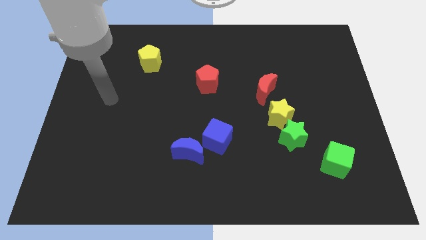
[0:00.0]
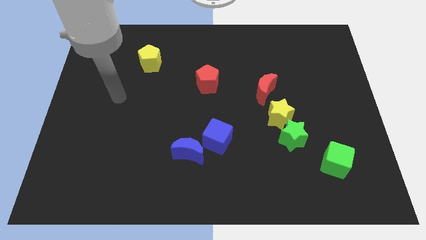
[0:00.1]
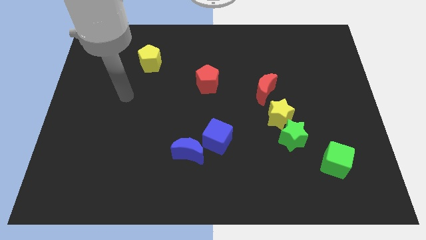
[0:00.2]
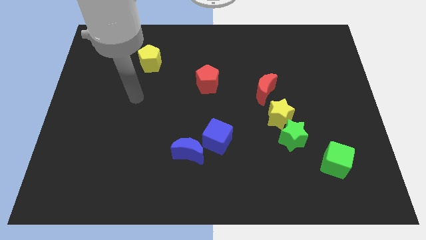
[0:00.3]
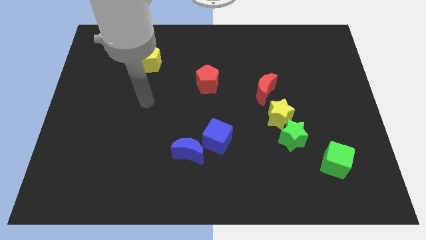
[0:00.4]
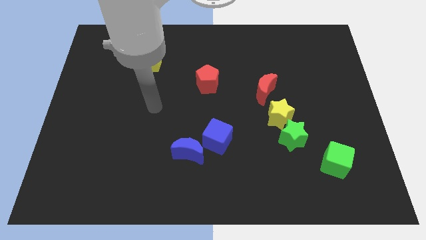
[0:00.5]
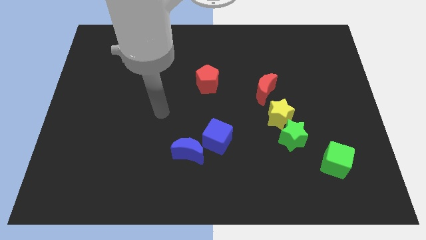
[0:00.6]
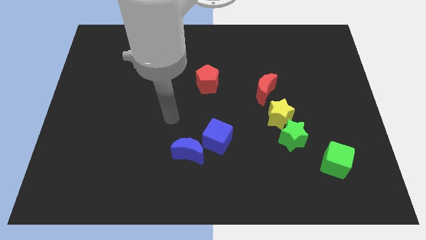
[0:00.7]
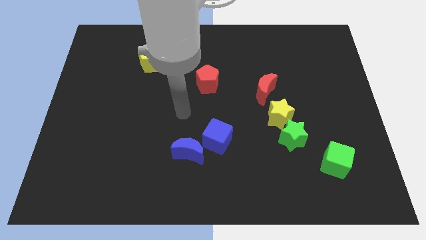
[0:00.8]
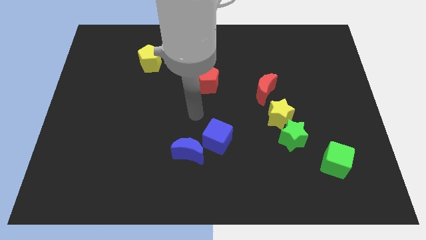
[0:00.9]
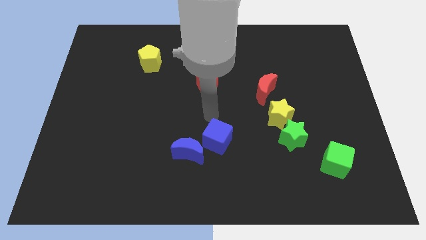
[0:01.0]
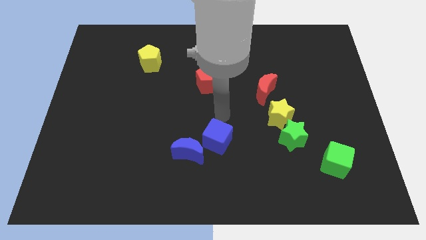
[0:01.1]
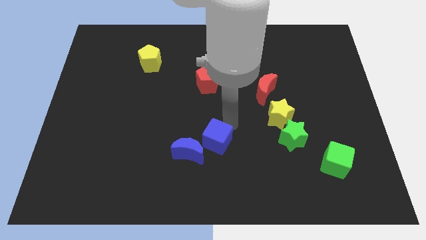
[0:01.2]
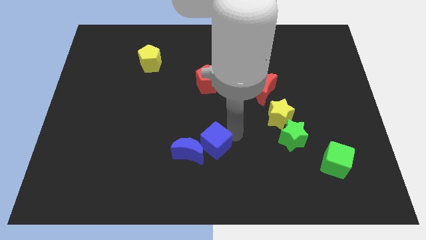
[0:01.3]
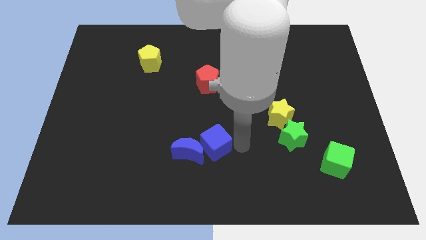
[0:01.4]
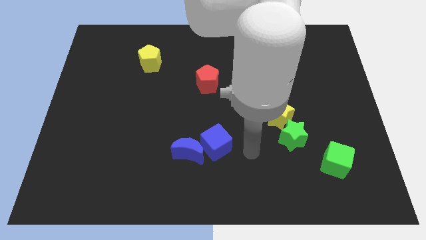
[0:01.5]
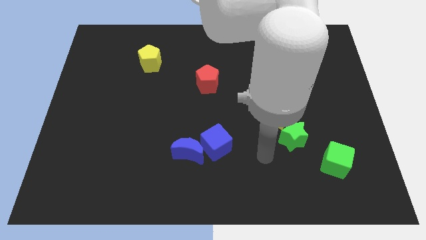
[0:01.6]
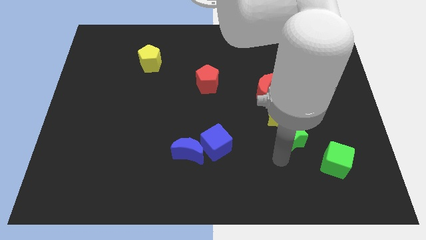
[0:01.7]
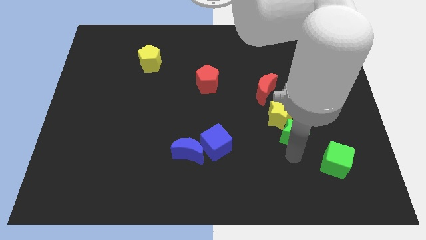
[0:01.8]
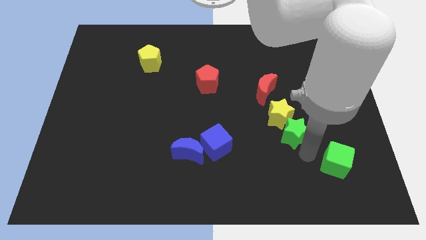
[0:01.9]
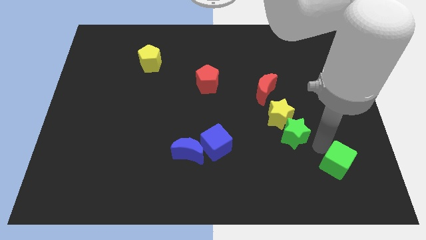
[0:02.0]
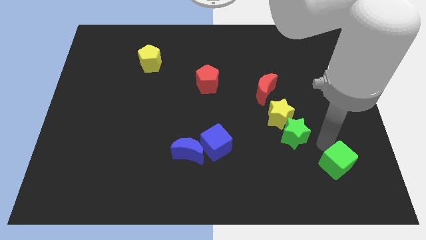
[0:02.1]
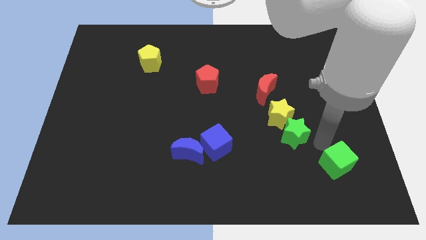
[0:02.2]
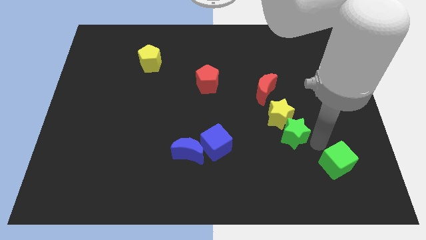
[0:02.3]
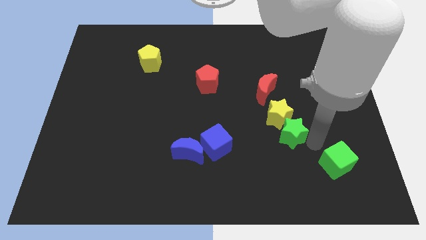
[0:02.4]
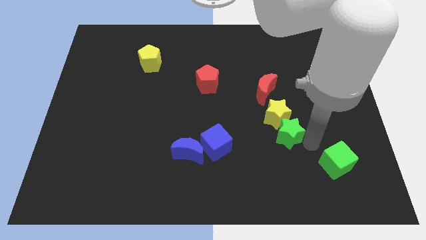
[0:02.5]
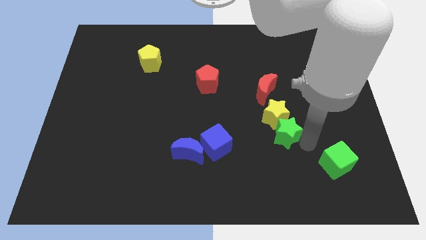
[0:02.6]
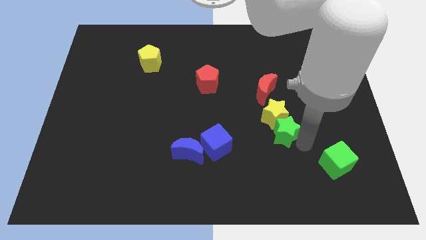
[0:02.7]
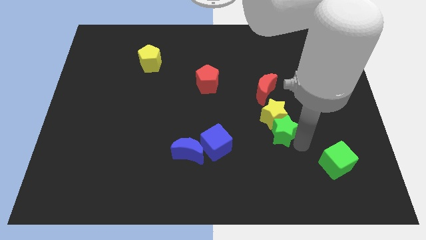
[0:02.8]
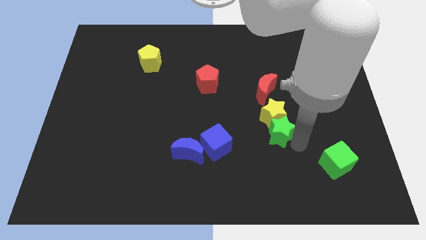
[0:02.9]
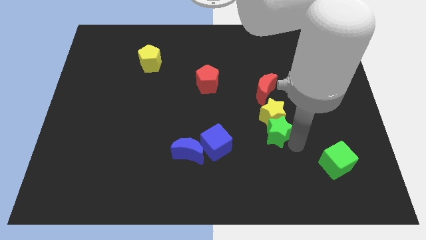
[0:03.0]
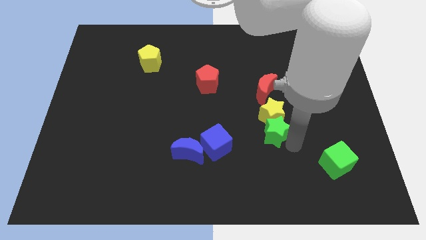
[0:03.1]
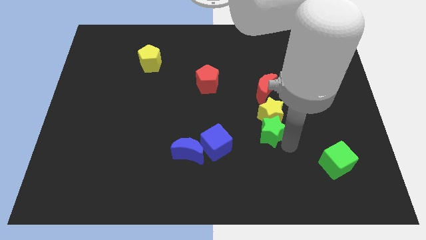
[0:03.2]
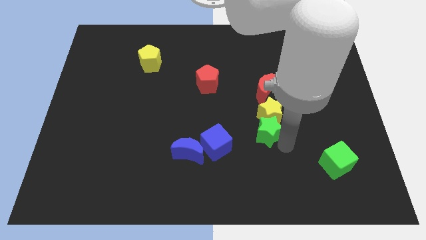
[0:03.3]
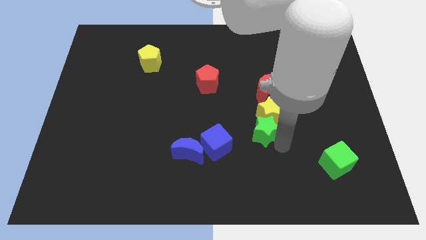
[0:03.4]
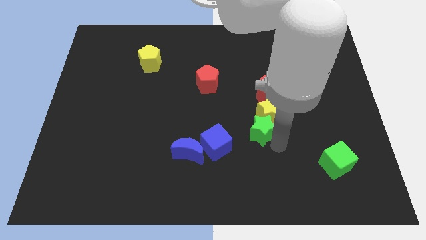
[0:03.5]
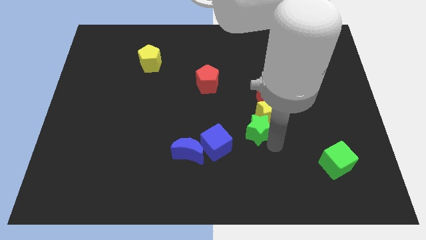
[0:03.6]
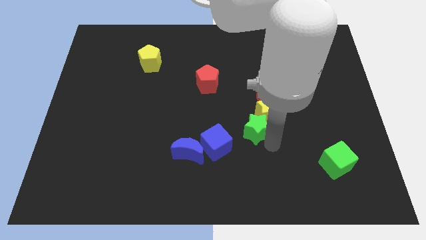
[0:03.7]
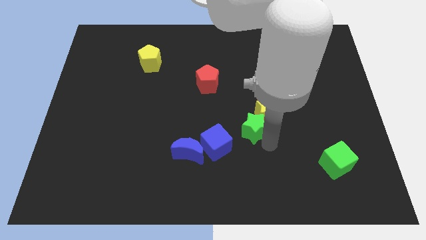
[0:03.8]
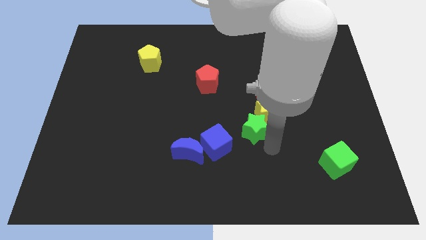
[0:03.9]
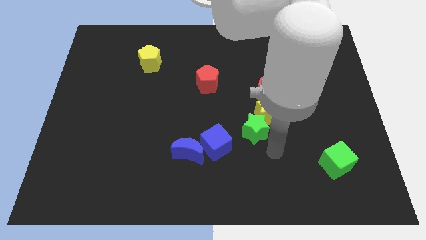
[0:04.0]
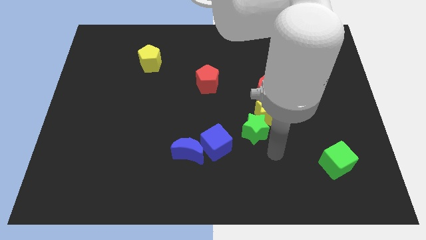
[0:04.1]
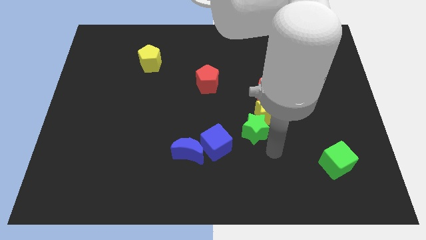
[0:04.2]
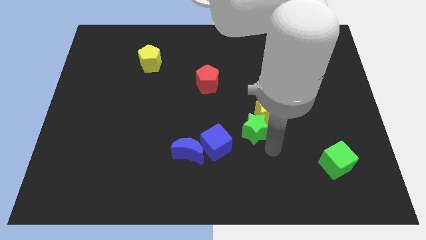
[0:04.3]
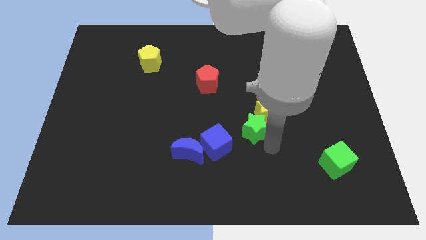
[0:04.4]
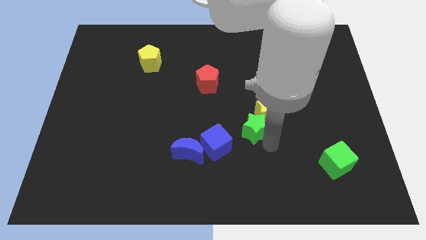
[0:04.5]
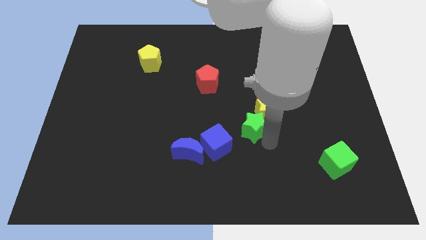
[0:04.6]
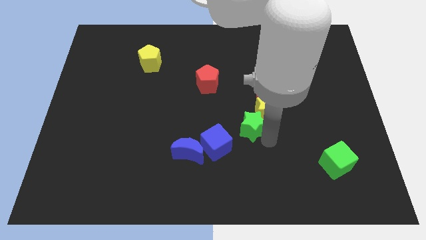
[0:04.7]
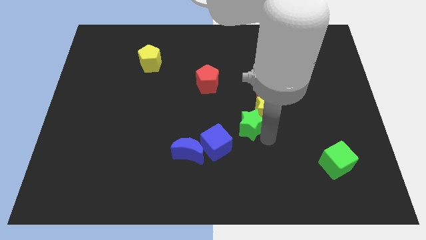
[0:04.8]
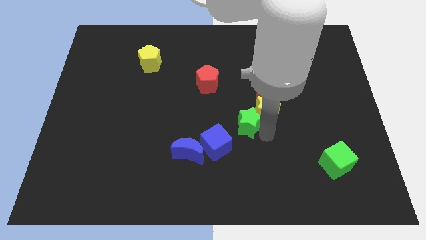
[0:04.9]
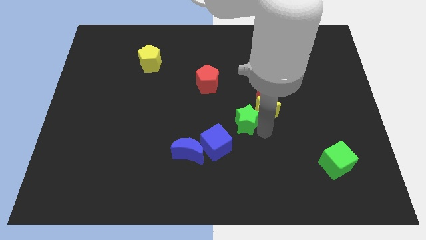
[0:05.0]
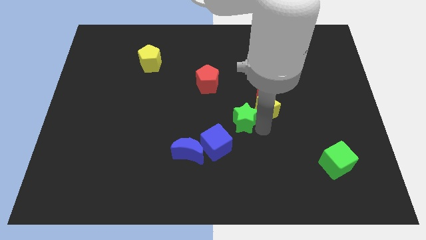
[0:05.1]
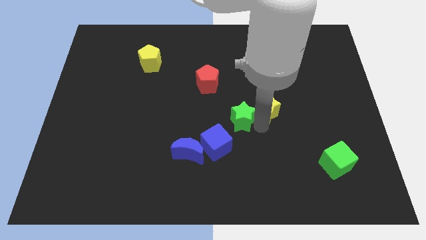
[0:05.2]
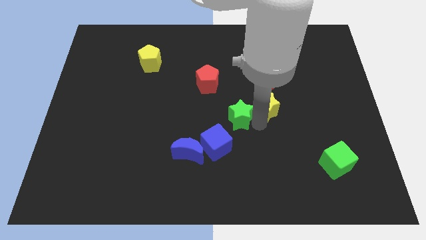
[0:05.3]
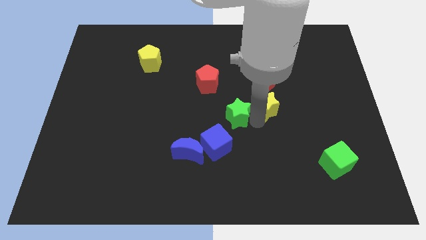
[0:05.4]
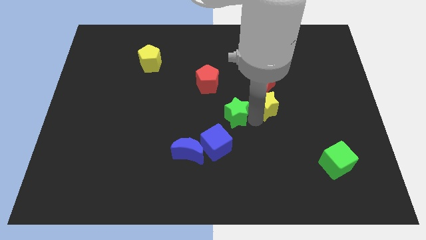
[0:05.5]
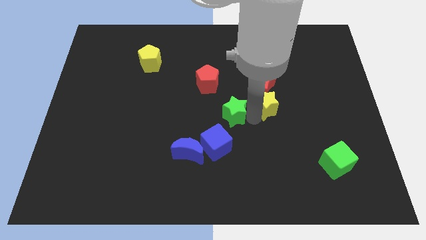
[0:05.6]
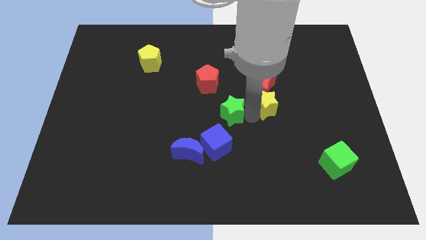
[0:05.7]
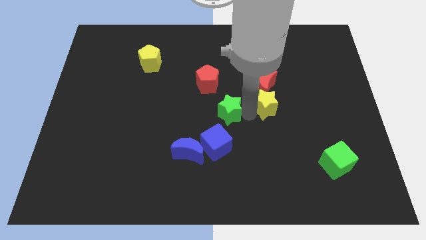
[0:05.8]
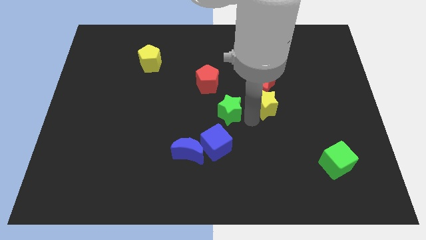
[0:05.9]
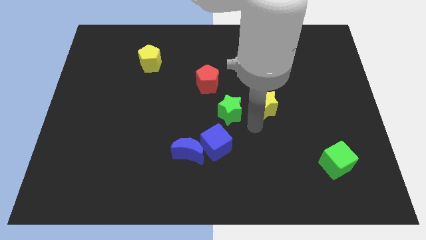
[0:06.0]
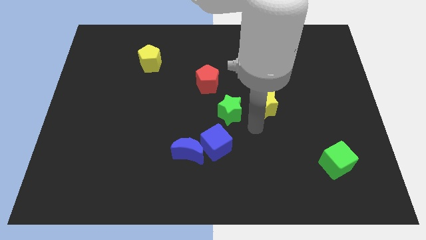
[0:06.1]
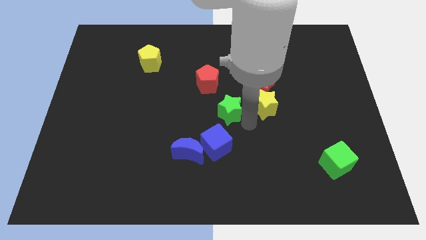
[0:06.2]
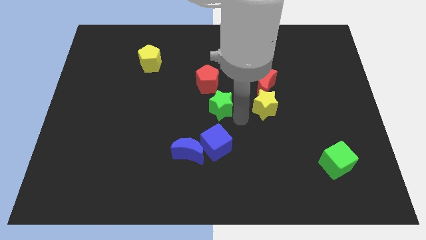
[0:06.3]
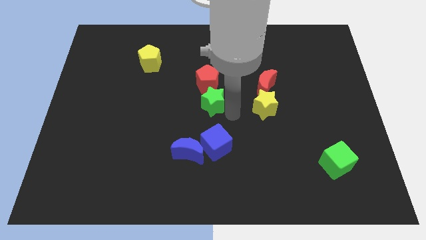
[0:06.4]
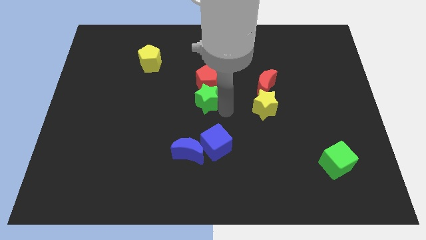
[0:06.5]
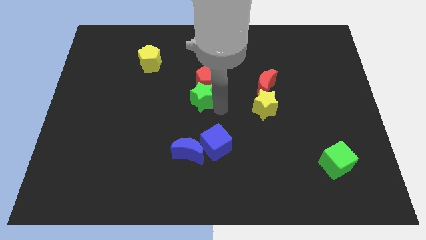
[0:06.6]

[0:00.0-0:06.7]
push the green star diagonally up and to the left

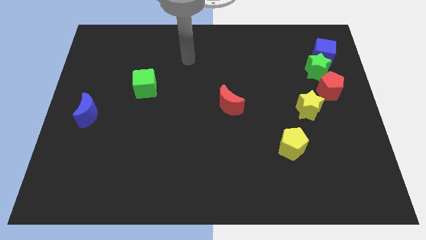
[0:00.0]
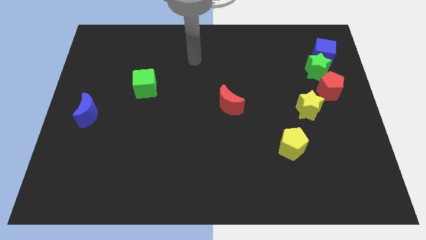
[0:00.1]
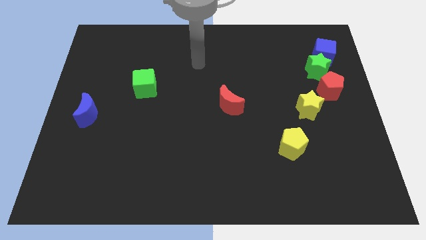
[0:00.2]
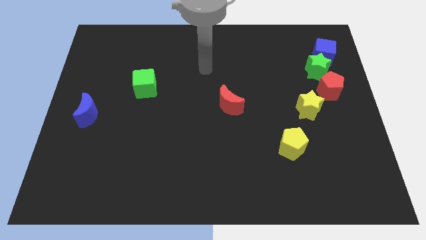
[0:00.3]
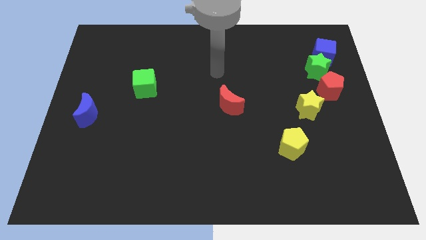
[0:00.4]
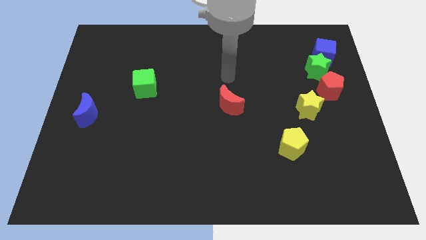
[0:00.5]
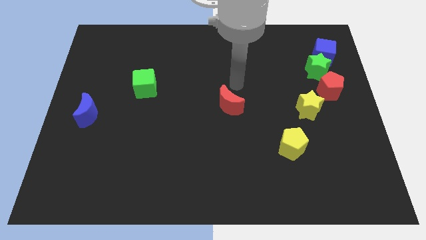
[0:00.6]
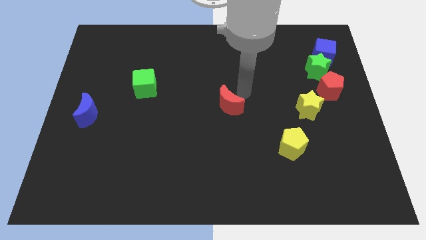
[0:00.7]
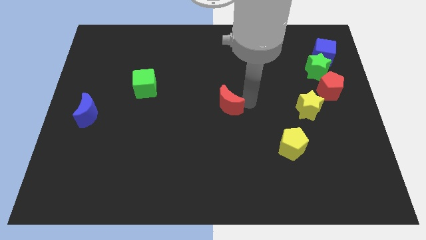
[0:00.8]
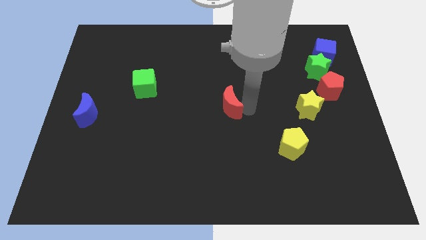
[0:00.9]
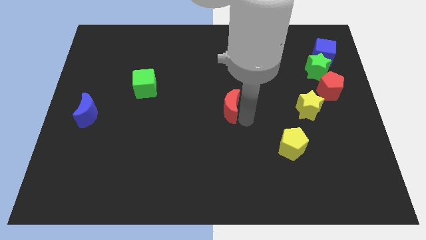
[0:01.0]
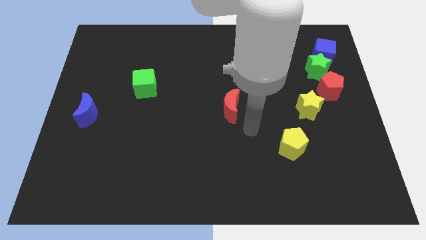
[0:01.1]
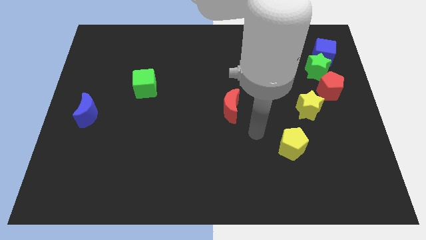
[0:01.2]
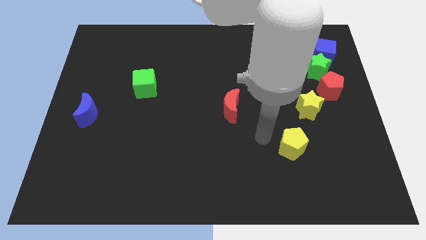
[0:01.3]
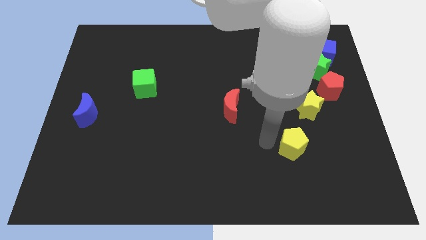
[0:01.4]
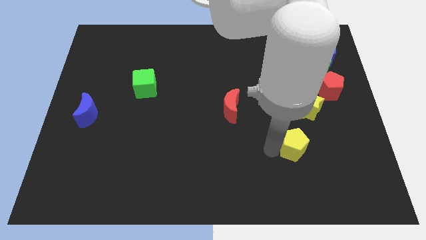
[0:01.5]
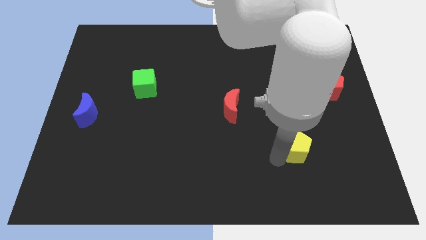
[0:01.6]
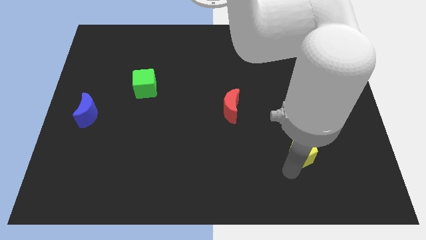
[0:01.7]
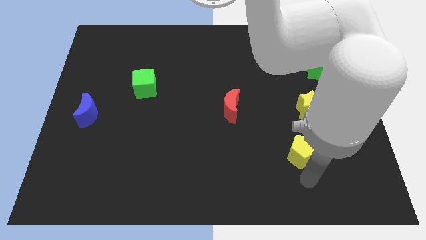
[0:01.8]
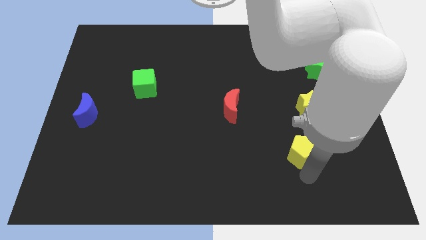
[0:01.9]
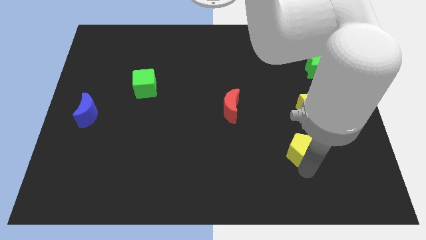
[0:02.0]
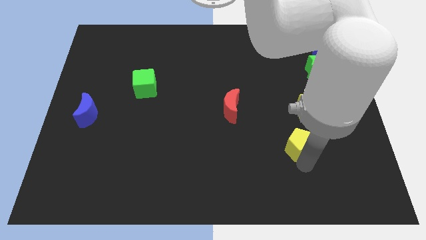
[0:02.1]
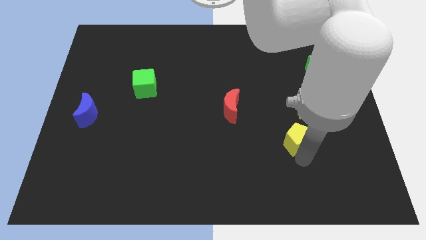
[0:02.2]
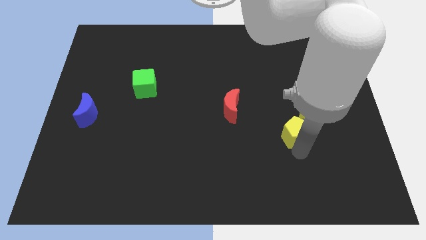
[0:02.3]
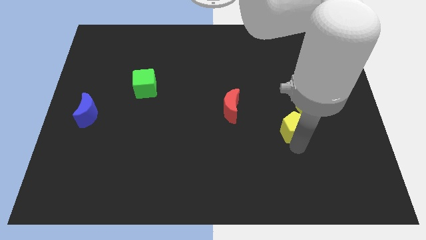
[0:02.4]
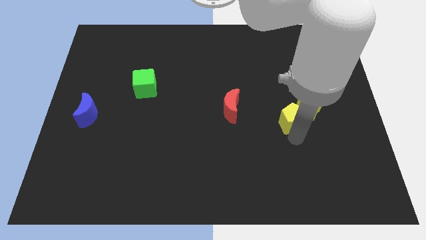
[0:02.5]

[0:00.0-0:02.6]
move the yellow pentagon slightly up
